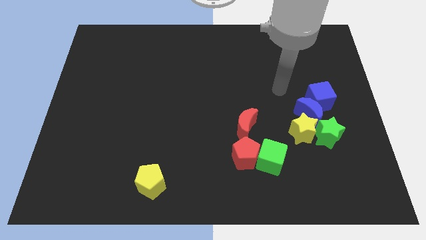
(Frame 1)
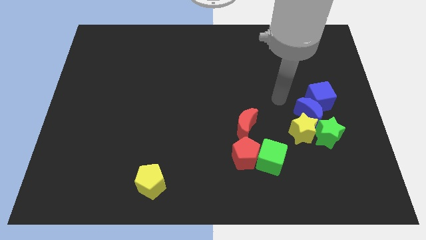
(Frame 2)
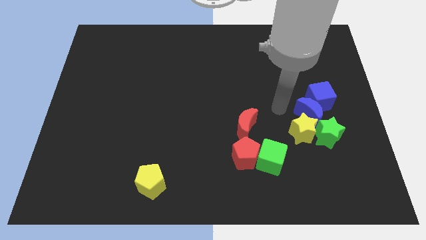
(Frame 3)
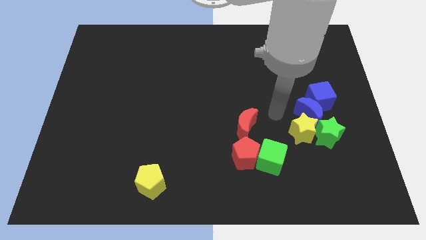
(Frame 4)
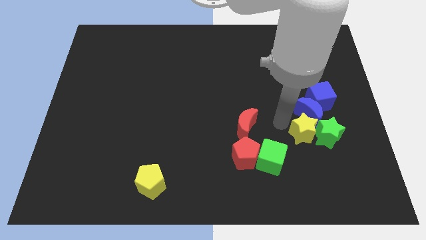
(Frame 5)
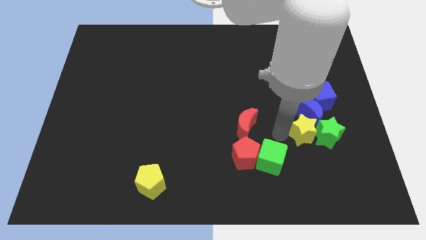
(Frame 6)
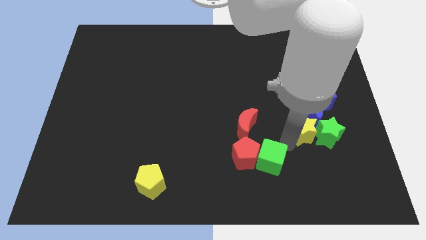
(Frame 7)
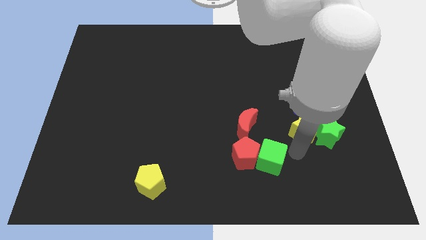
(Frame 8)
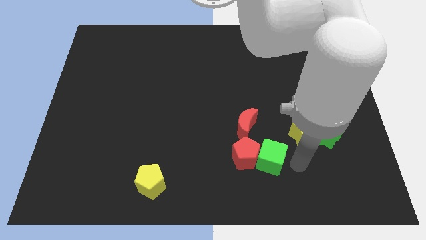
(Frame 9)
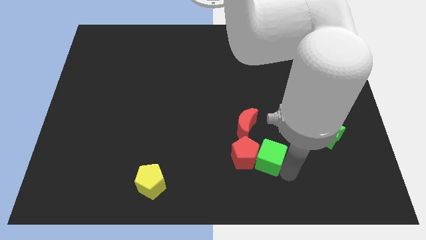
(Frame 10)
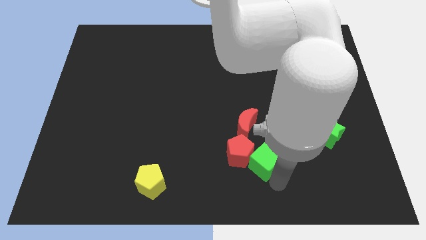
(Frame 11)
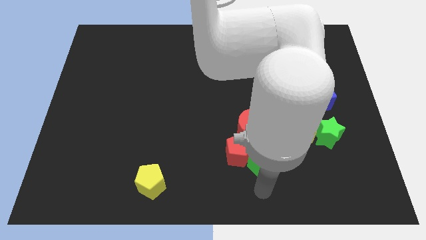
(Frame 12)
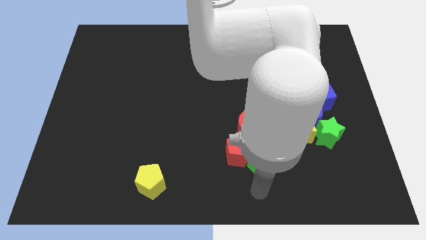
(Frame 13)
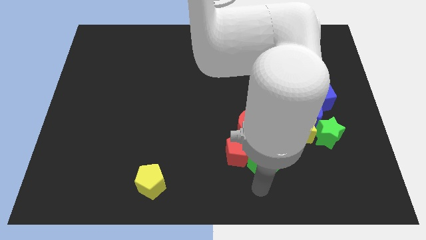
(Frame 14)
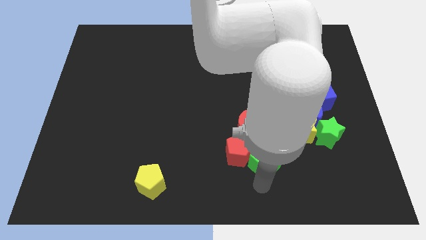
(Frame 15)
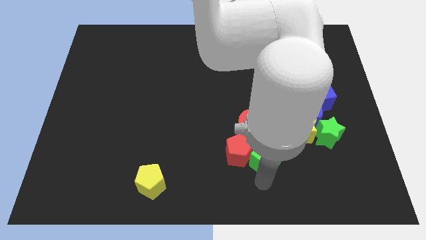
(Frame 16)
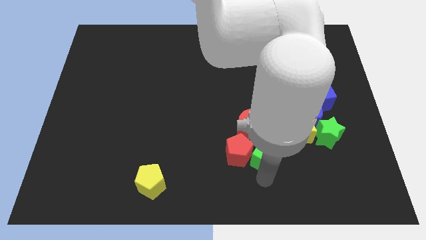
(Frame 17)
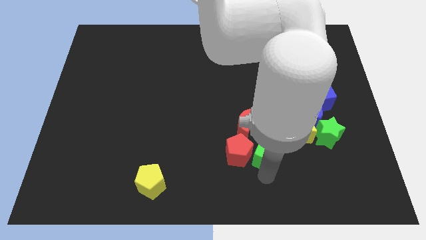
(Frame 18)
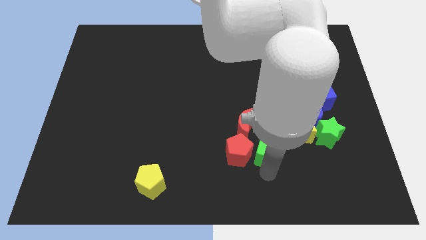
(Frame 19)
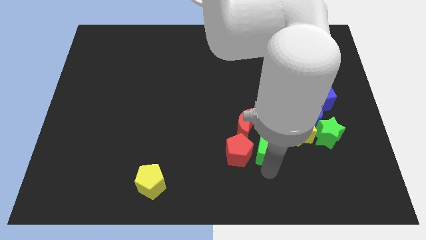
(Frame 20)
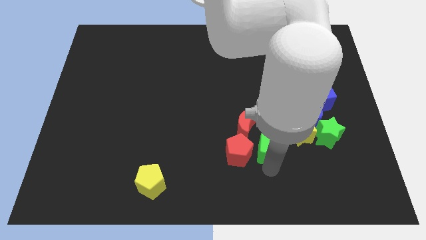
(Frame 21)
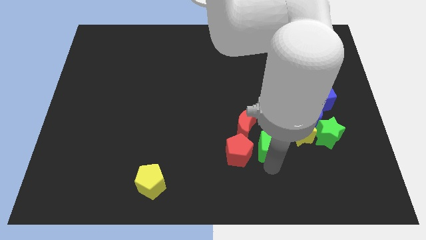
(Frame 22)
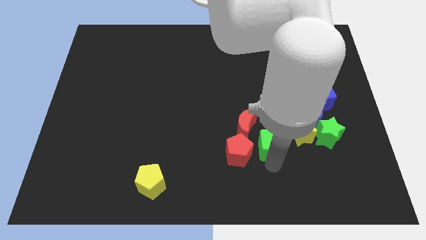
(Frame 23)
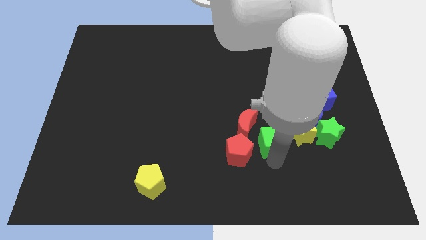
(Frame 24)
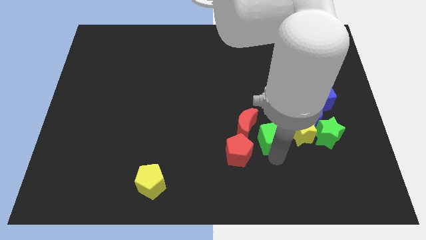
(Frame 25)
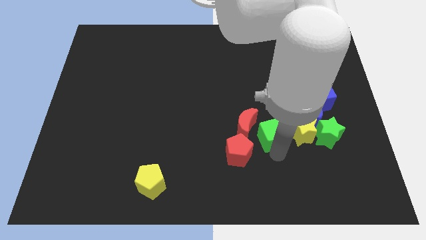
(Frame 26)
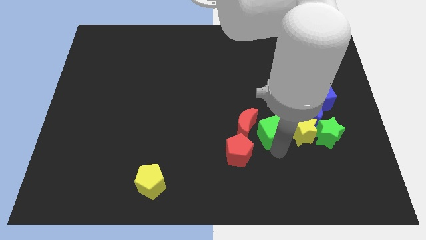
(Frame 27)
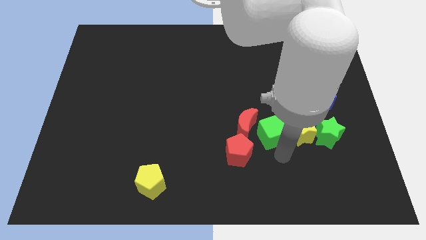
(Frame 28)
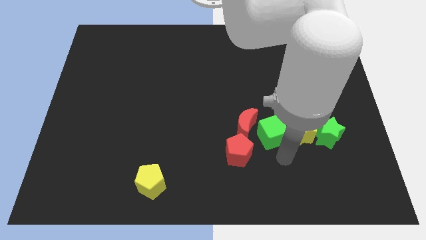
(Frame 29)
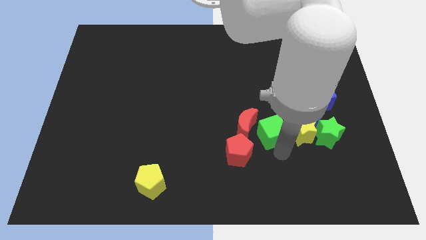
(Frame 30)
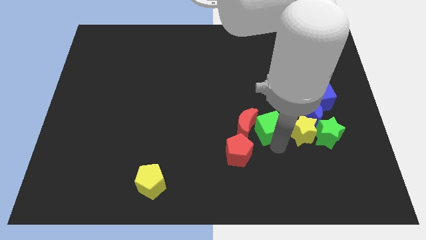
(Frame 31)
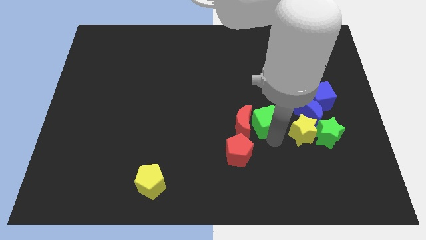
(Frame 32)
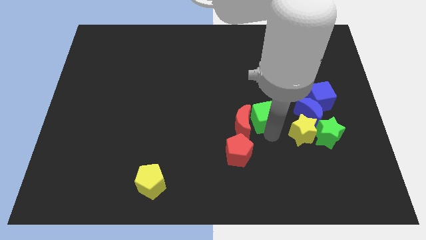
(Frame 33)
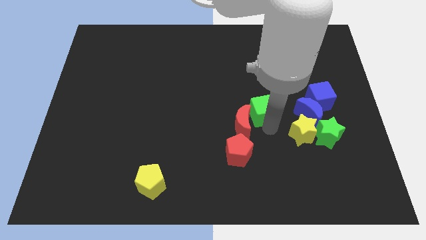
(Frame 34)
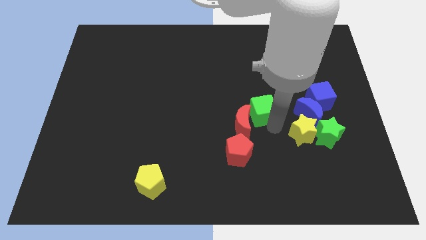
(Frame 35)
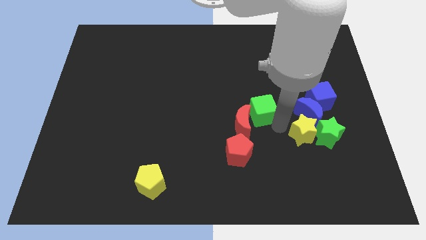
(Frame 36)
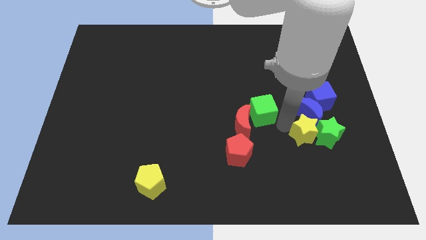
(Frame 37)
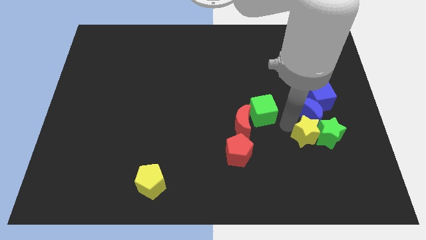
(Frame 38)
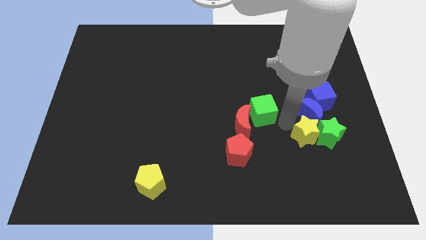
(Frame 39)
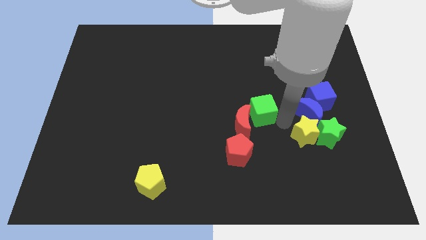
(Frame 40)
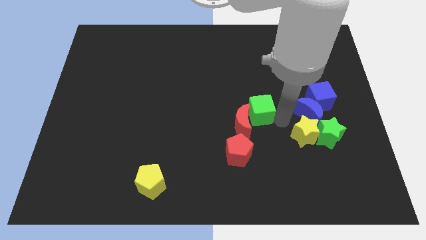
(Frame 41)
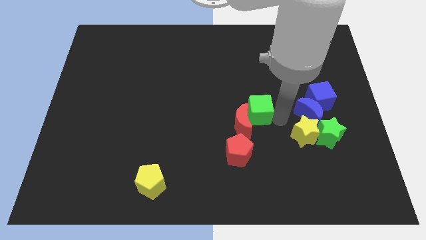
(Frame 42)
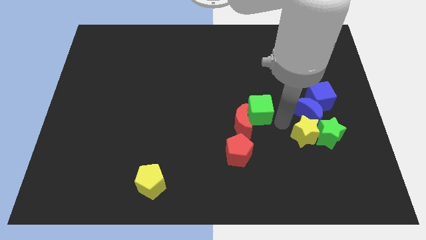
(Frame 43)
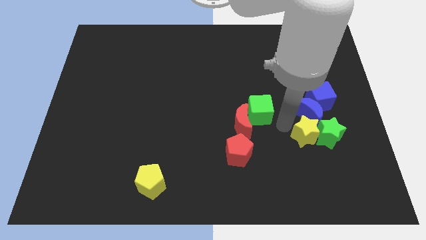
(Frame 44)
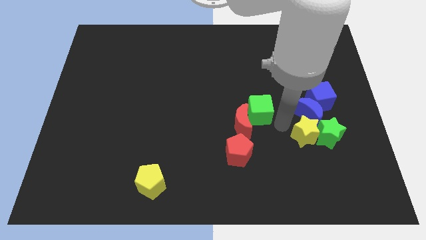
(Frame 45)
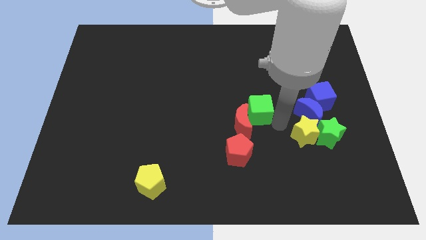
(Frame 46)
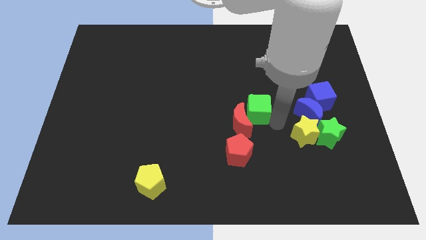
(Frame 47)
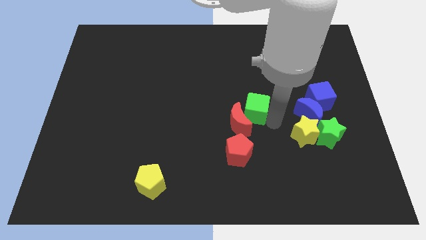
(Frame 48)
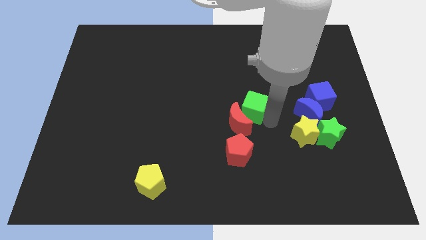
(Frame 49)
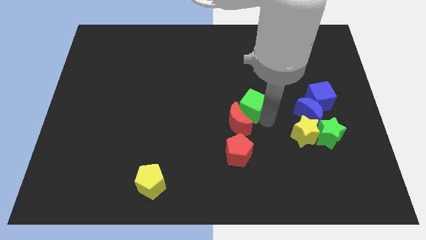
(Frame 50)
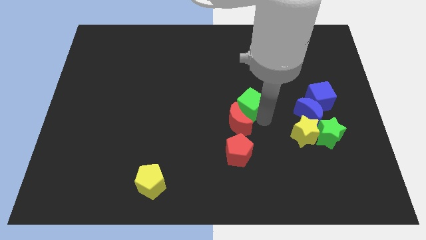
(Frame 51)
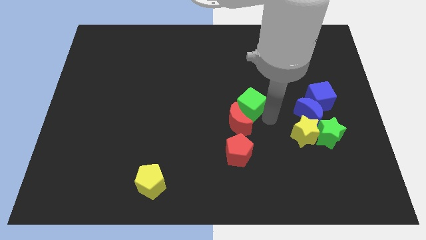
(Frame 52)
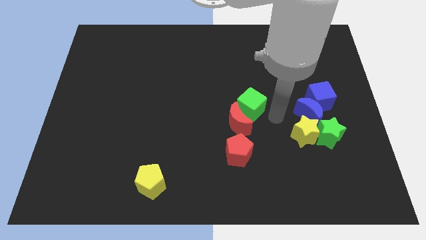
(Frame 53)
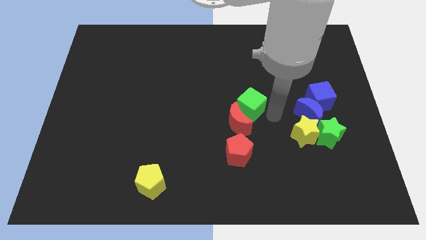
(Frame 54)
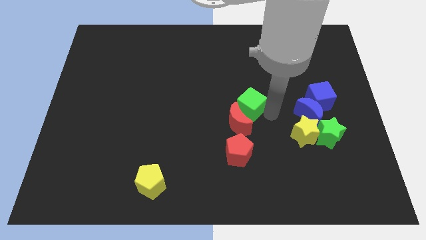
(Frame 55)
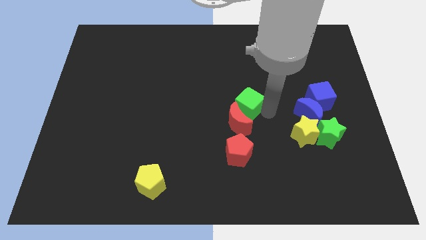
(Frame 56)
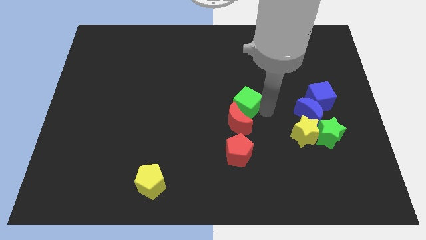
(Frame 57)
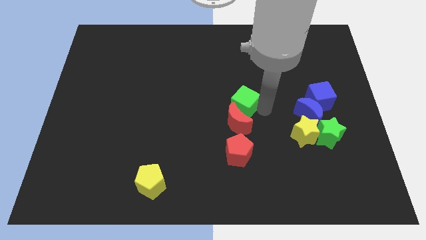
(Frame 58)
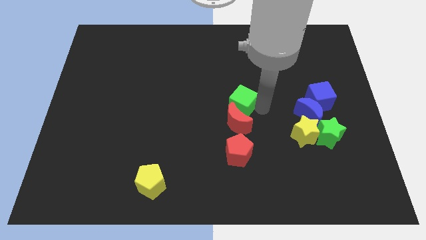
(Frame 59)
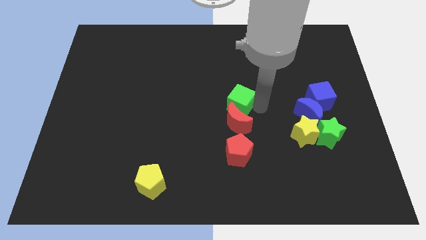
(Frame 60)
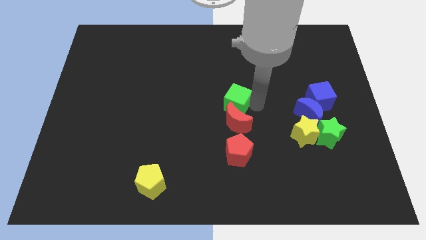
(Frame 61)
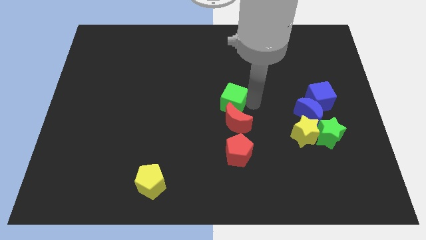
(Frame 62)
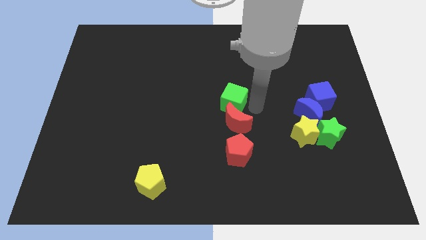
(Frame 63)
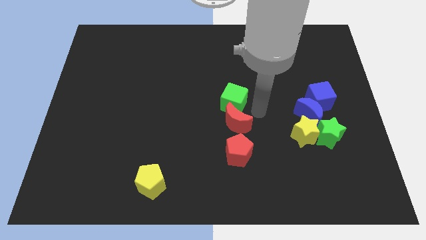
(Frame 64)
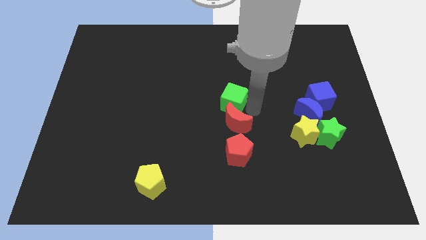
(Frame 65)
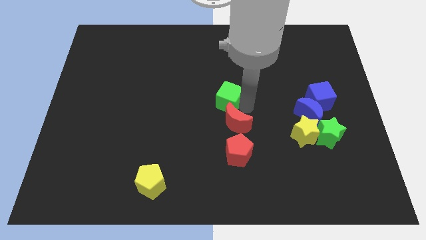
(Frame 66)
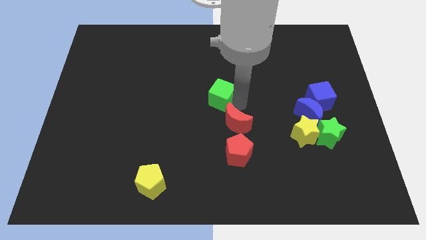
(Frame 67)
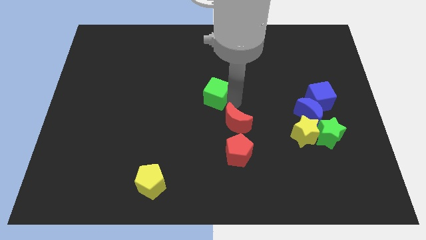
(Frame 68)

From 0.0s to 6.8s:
push the green cube up and left diagonally

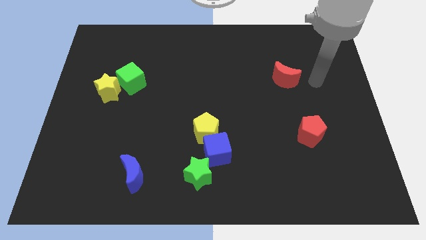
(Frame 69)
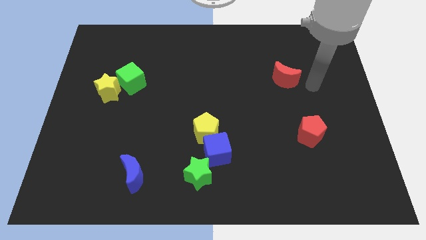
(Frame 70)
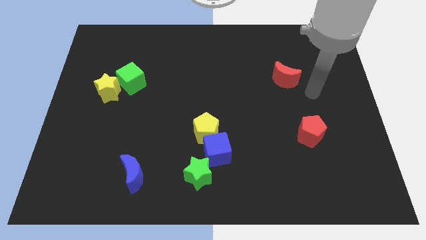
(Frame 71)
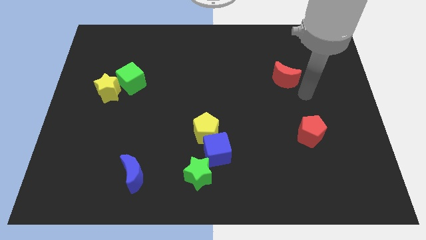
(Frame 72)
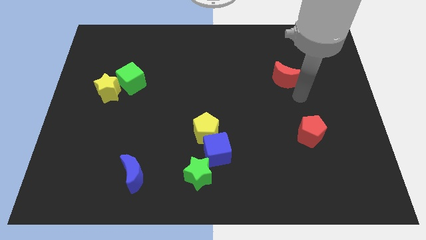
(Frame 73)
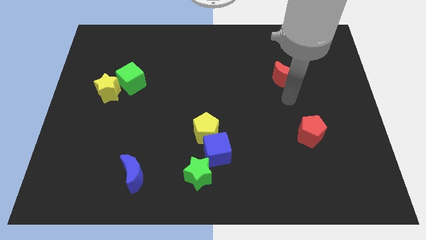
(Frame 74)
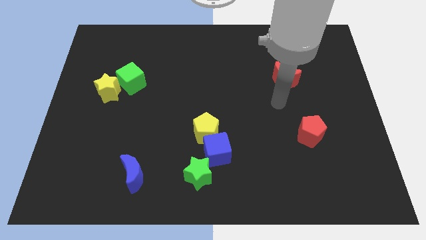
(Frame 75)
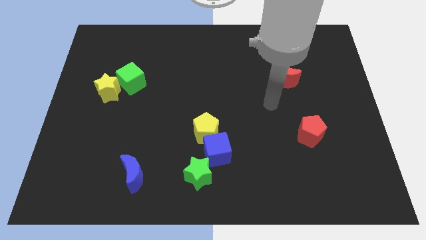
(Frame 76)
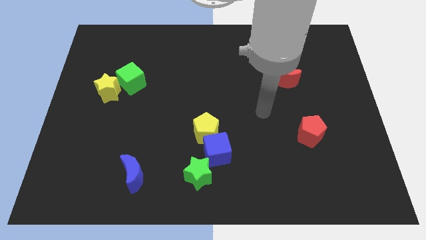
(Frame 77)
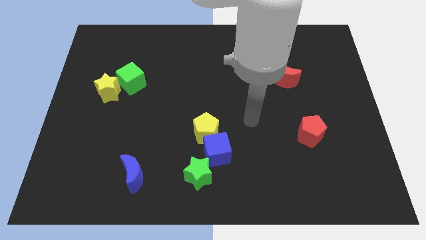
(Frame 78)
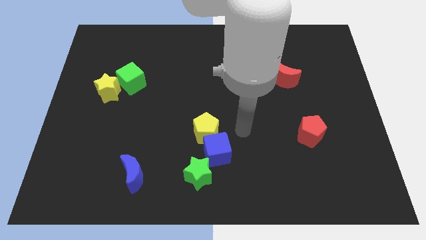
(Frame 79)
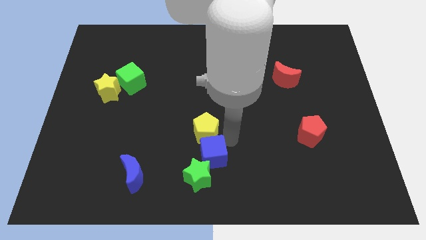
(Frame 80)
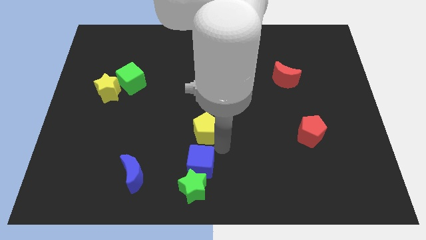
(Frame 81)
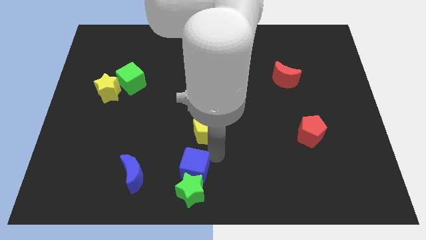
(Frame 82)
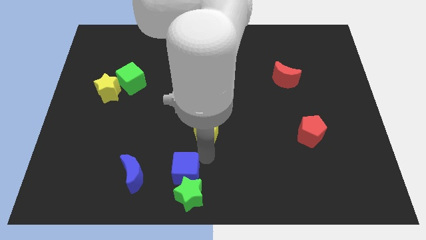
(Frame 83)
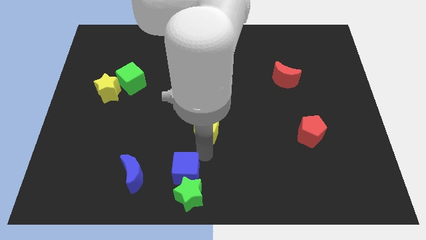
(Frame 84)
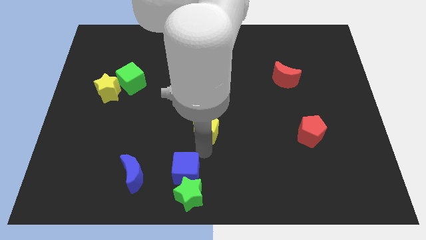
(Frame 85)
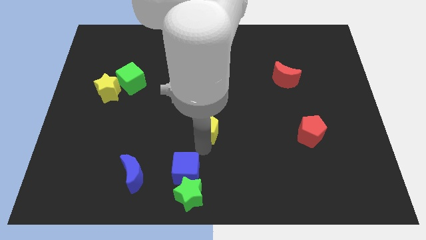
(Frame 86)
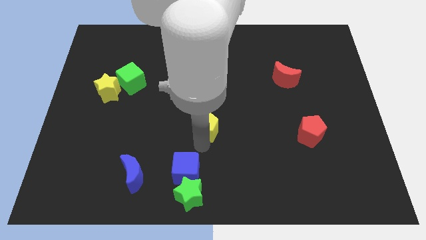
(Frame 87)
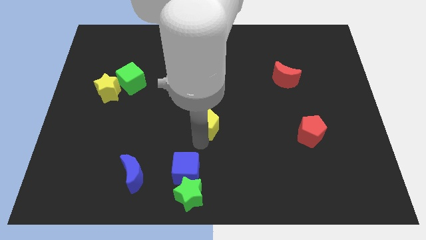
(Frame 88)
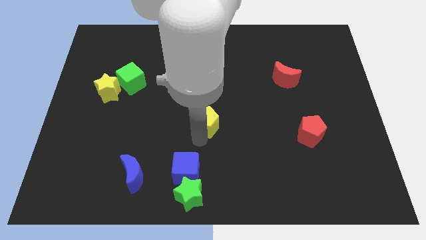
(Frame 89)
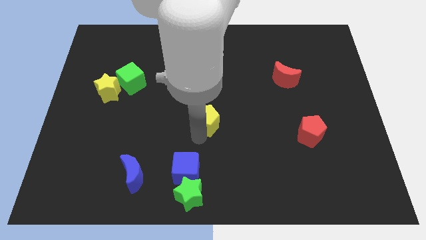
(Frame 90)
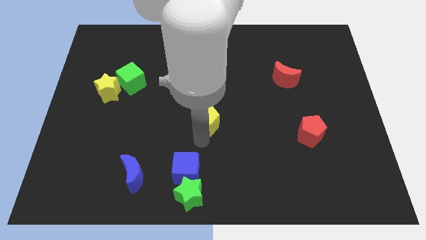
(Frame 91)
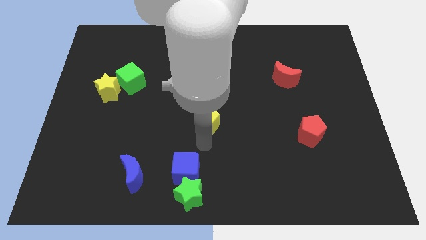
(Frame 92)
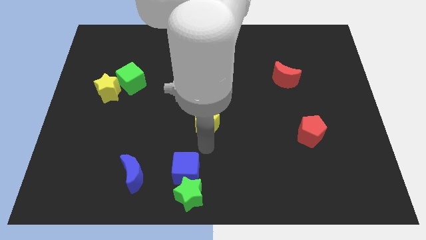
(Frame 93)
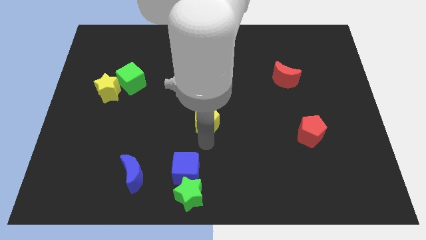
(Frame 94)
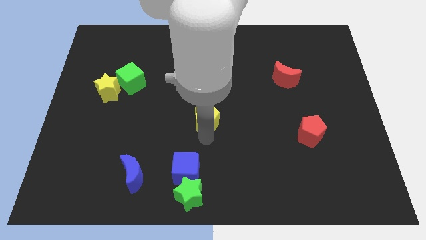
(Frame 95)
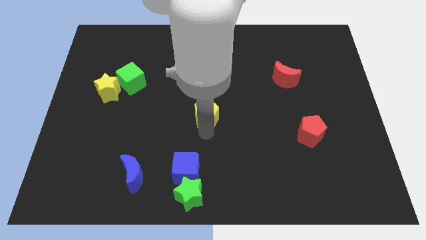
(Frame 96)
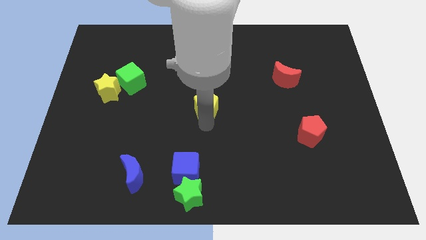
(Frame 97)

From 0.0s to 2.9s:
slightly push the yellow pentagon up
